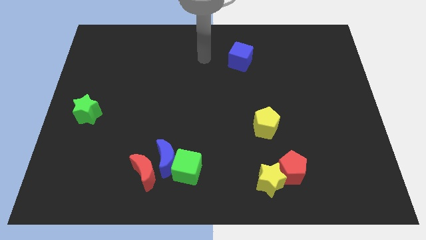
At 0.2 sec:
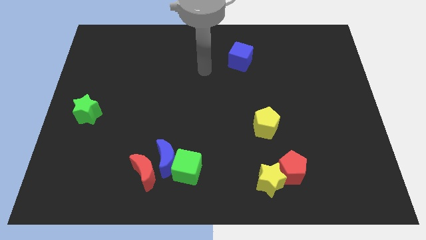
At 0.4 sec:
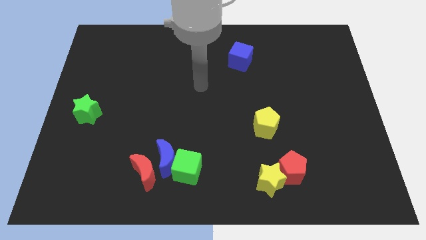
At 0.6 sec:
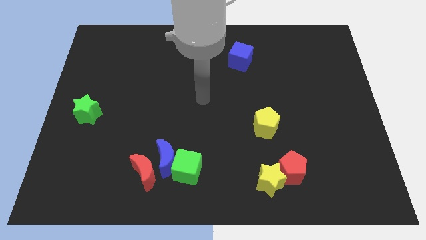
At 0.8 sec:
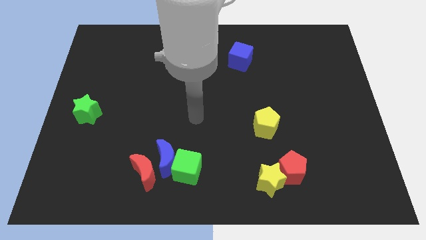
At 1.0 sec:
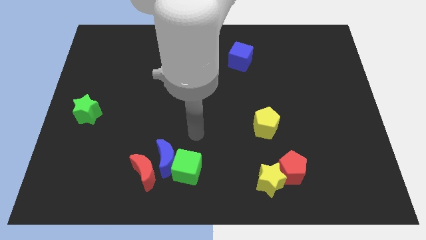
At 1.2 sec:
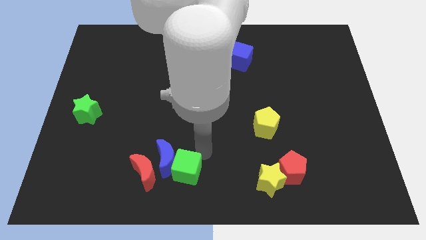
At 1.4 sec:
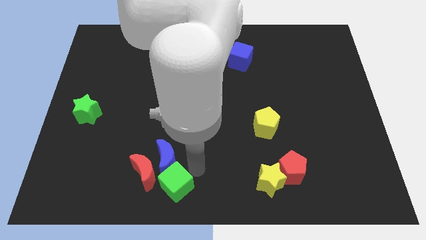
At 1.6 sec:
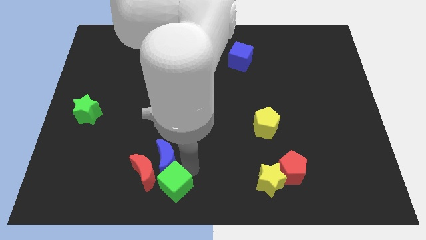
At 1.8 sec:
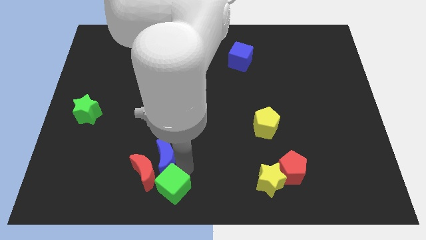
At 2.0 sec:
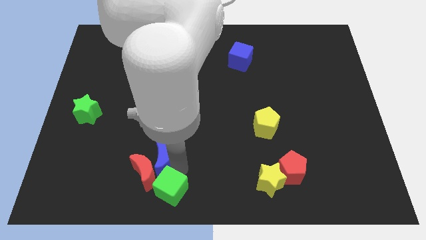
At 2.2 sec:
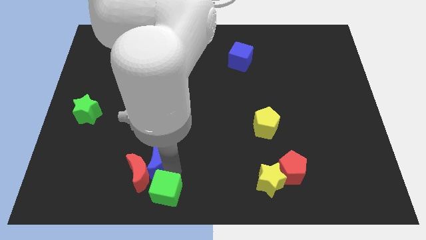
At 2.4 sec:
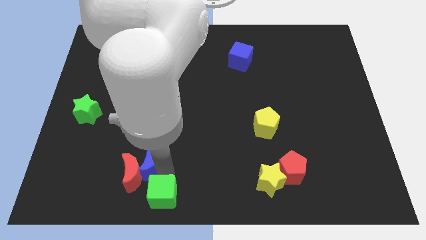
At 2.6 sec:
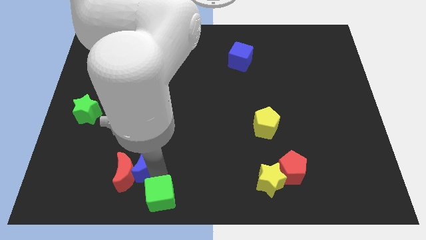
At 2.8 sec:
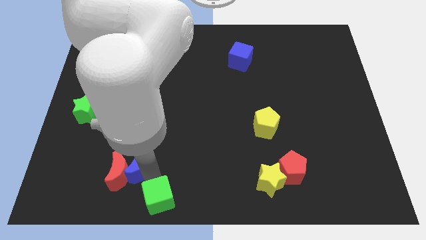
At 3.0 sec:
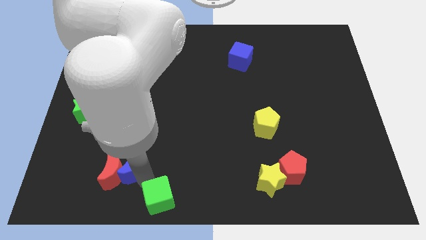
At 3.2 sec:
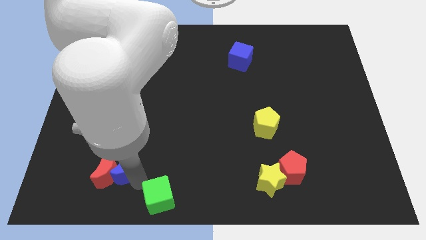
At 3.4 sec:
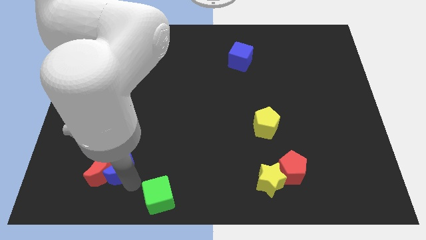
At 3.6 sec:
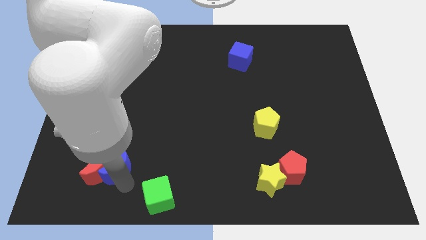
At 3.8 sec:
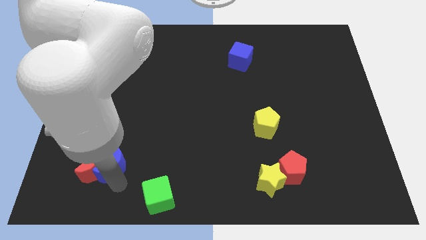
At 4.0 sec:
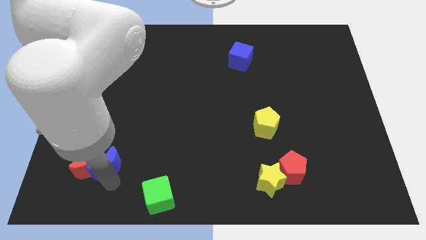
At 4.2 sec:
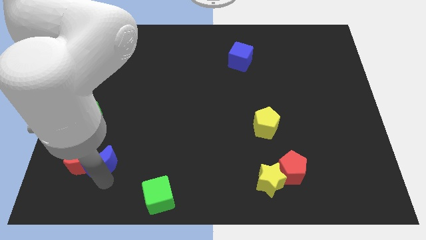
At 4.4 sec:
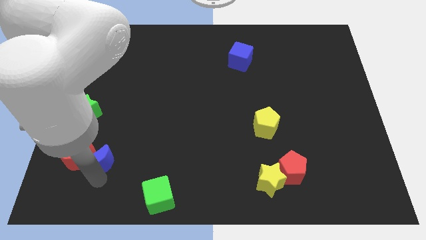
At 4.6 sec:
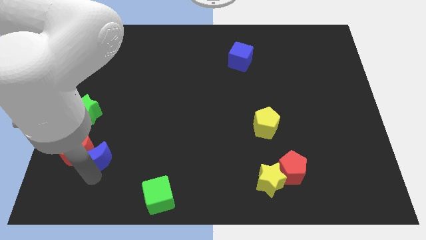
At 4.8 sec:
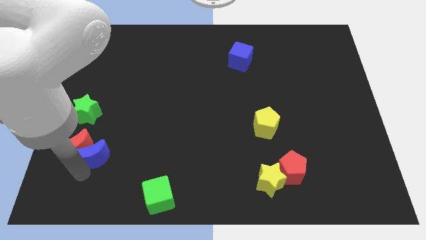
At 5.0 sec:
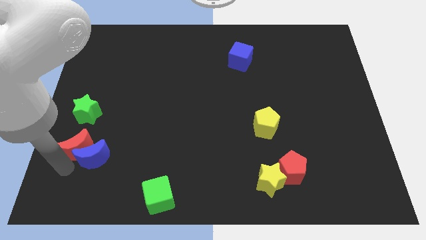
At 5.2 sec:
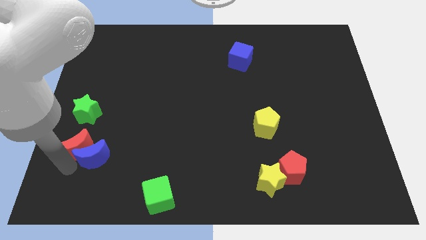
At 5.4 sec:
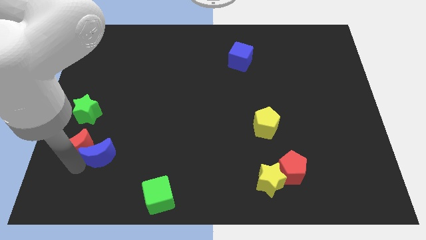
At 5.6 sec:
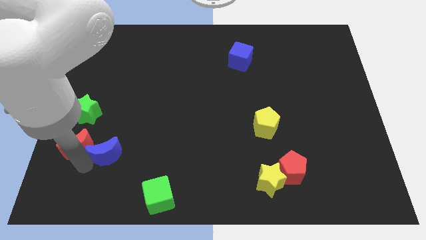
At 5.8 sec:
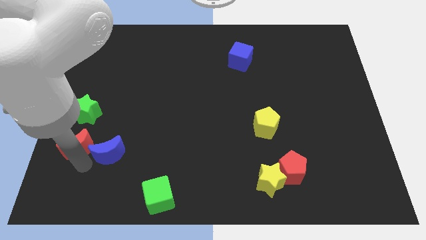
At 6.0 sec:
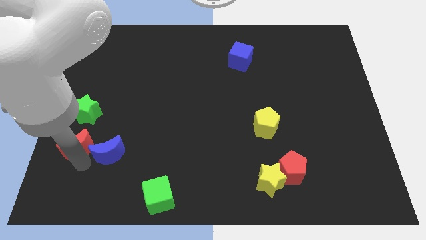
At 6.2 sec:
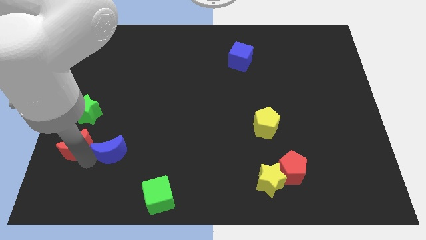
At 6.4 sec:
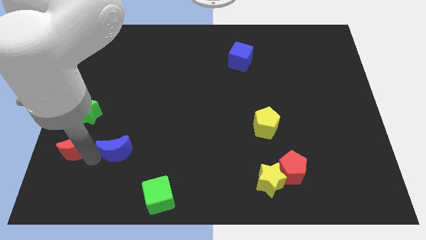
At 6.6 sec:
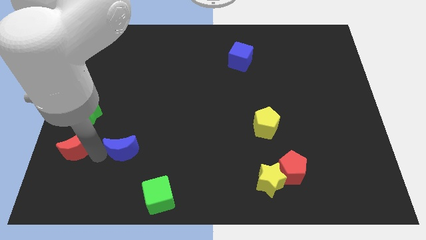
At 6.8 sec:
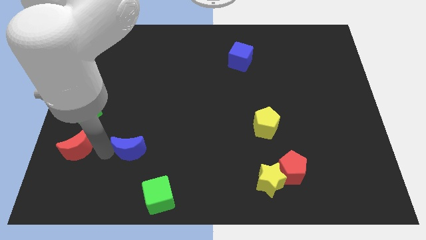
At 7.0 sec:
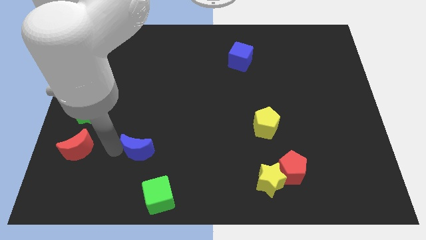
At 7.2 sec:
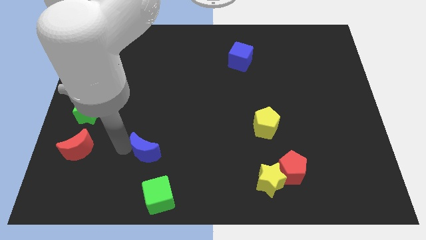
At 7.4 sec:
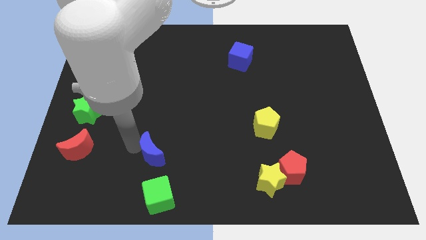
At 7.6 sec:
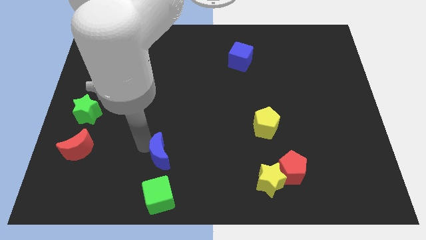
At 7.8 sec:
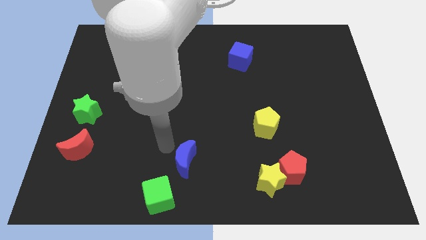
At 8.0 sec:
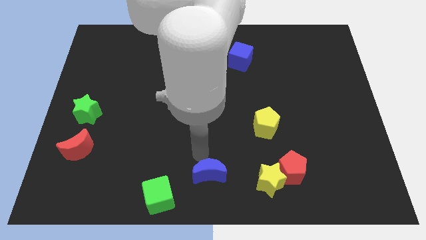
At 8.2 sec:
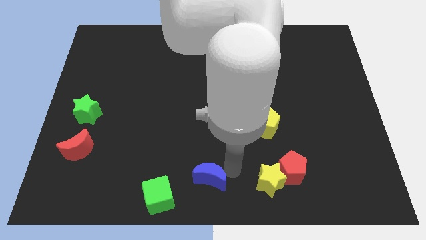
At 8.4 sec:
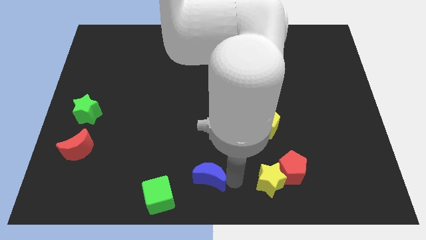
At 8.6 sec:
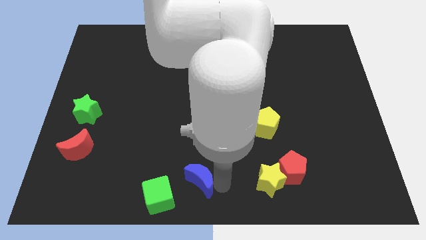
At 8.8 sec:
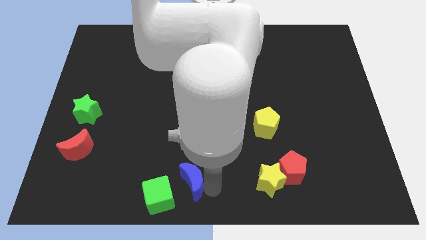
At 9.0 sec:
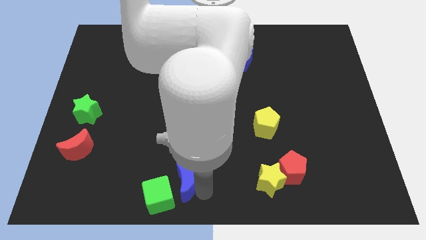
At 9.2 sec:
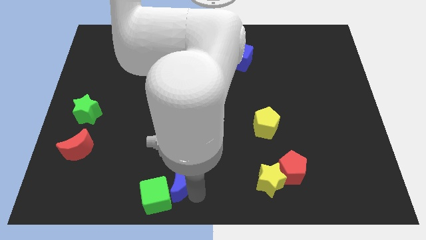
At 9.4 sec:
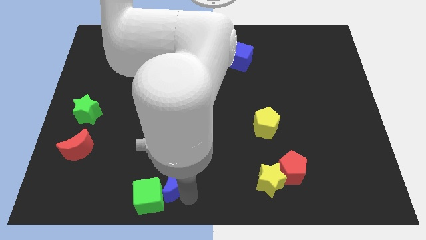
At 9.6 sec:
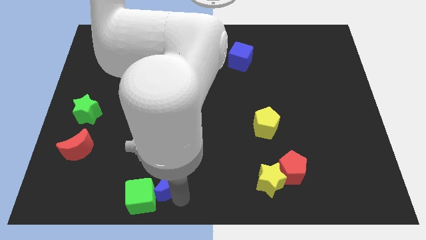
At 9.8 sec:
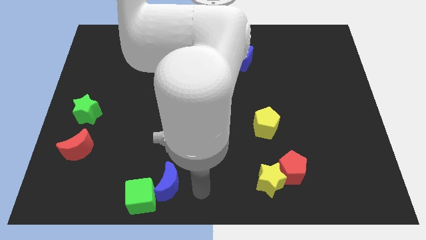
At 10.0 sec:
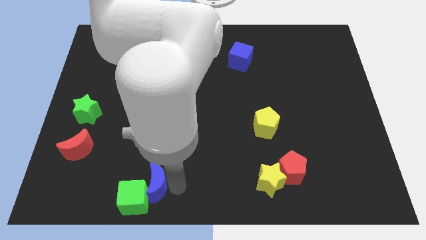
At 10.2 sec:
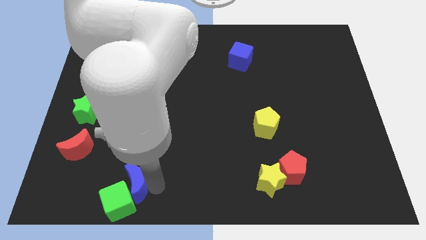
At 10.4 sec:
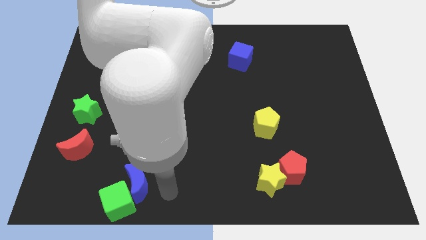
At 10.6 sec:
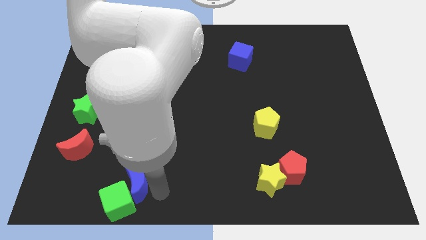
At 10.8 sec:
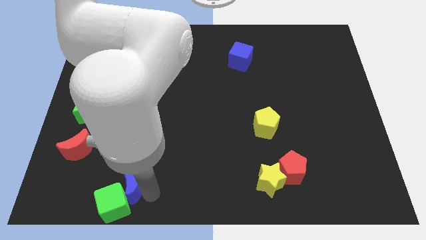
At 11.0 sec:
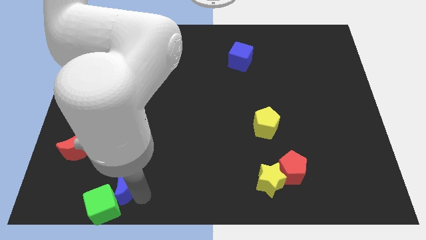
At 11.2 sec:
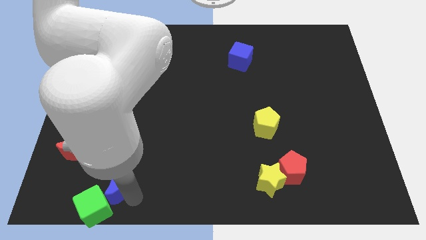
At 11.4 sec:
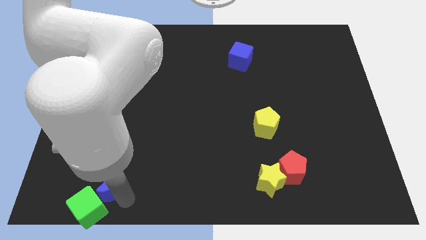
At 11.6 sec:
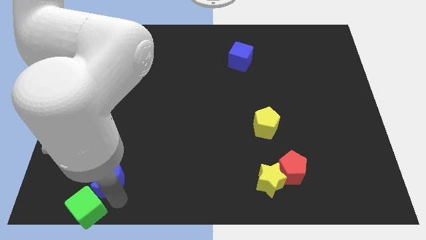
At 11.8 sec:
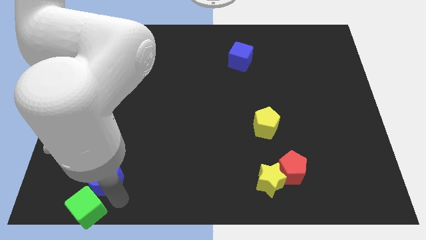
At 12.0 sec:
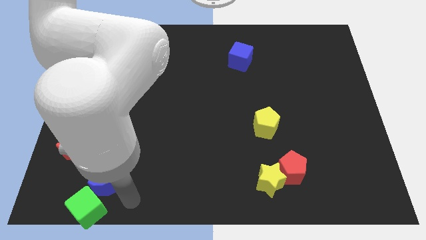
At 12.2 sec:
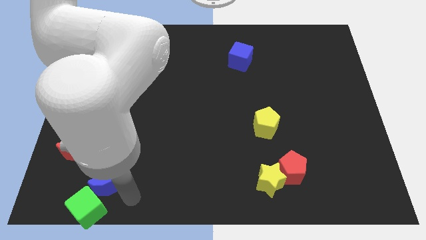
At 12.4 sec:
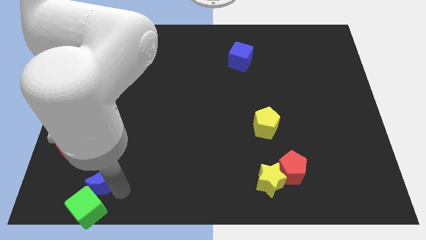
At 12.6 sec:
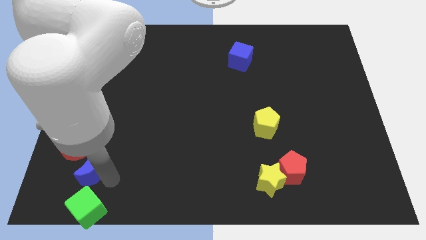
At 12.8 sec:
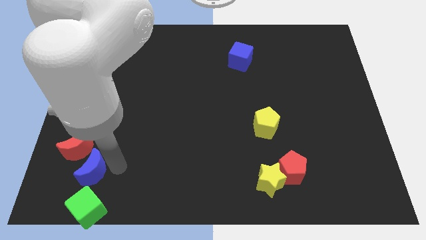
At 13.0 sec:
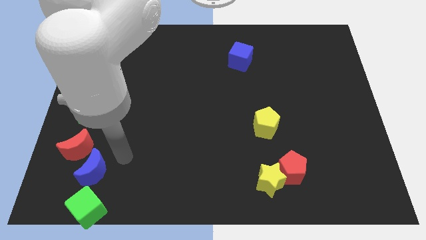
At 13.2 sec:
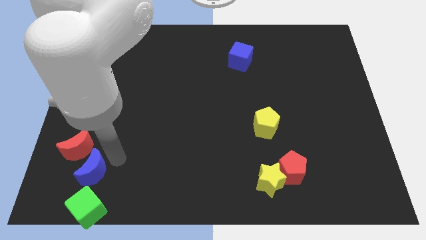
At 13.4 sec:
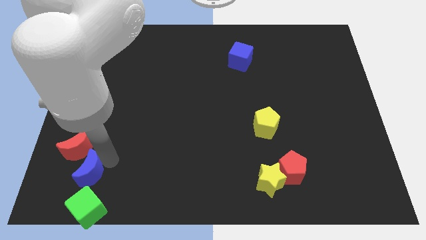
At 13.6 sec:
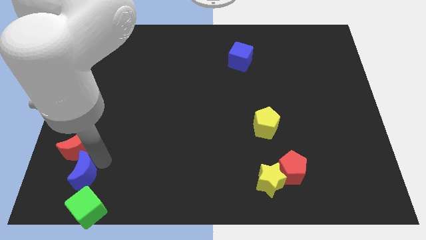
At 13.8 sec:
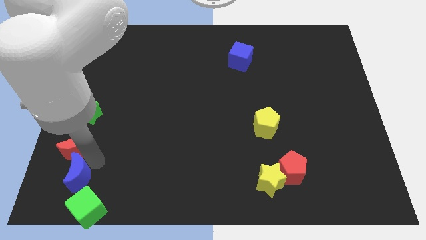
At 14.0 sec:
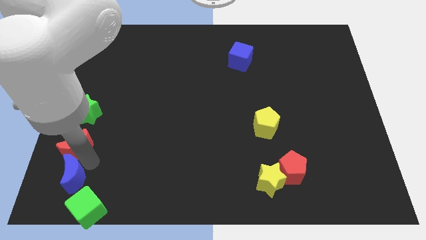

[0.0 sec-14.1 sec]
slide the blue moon to the bottom left
